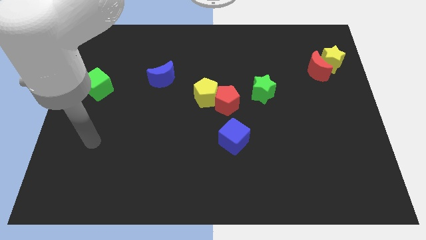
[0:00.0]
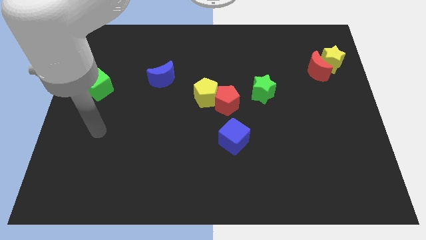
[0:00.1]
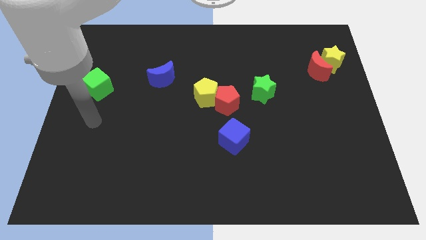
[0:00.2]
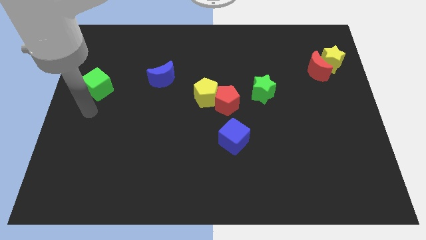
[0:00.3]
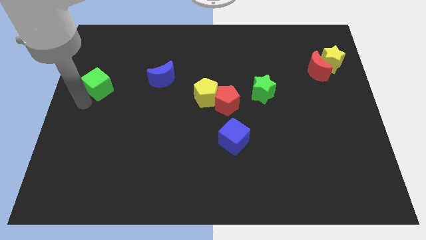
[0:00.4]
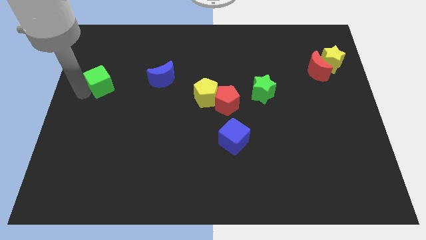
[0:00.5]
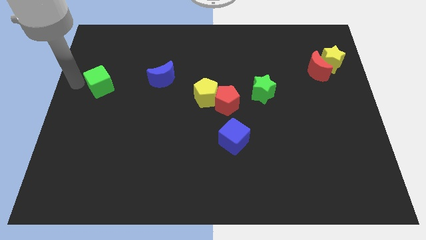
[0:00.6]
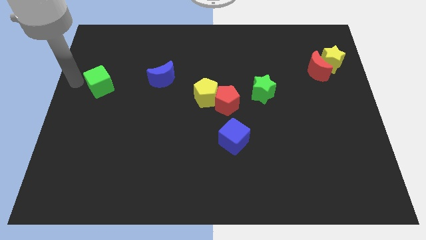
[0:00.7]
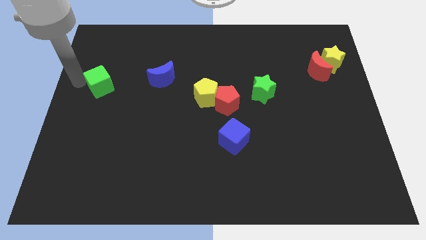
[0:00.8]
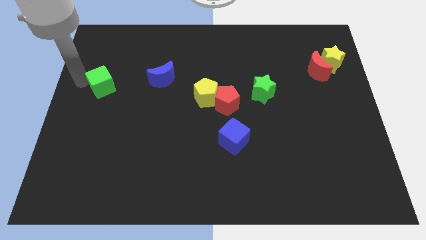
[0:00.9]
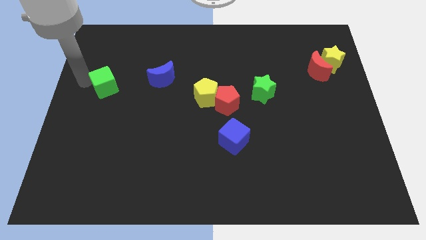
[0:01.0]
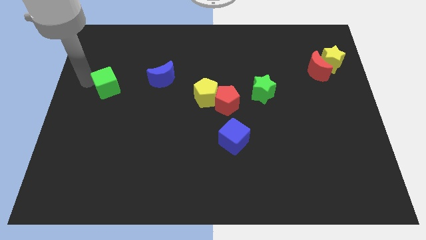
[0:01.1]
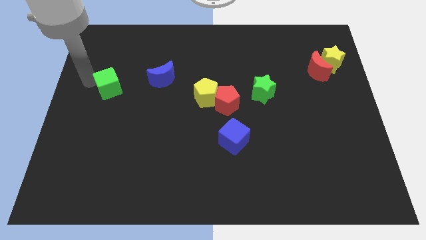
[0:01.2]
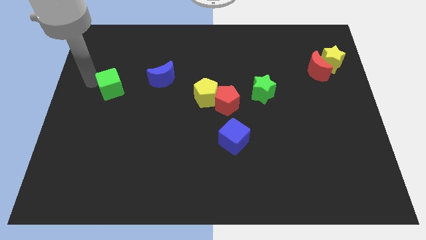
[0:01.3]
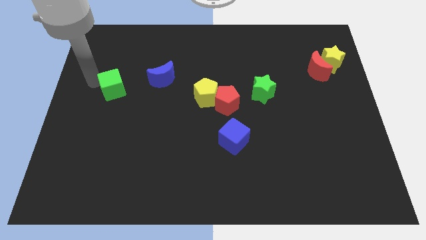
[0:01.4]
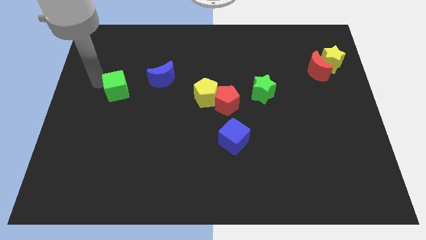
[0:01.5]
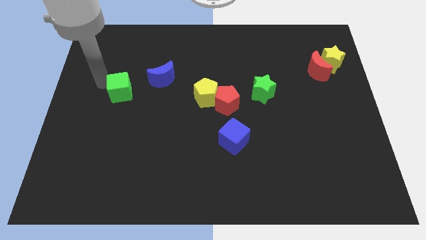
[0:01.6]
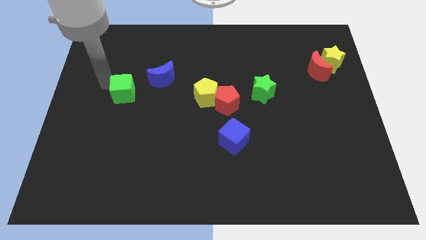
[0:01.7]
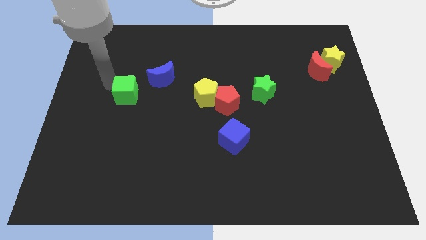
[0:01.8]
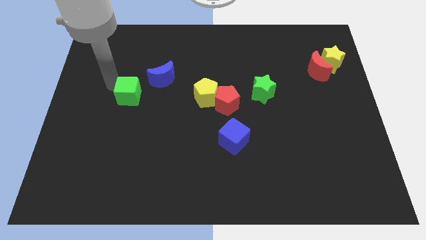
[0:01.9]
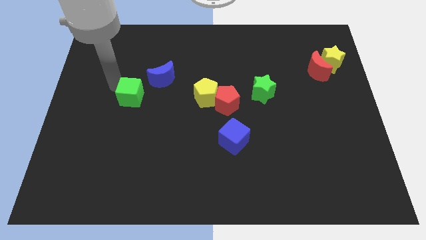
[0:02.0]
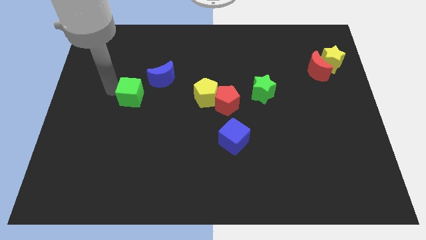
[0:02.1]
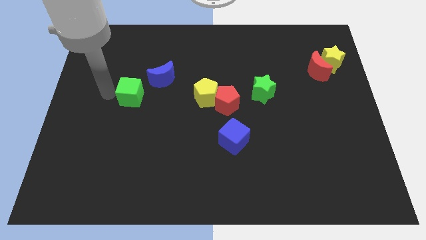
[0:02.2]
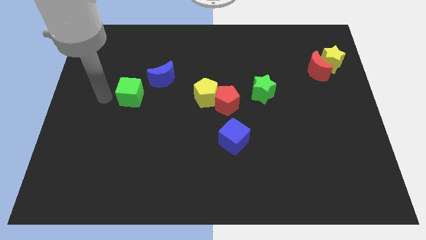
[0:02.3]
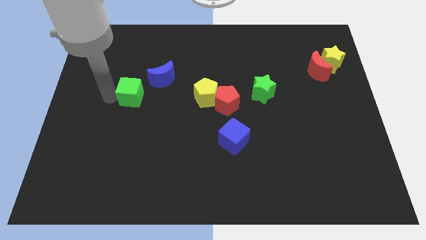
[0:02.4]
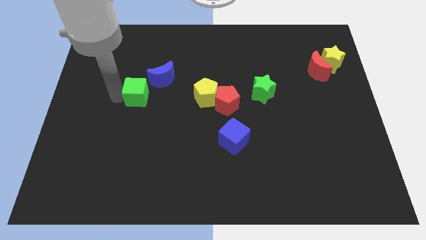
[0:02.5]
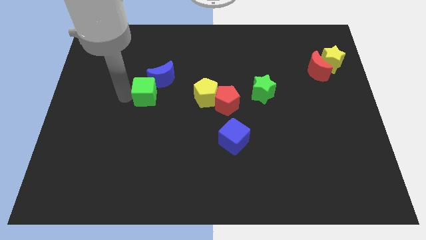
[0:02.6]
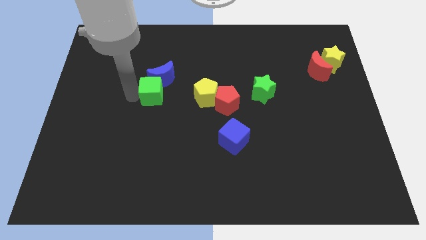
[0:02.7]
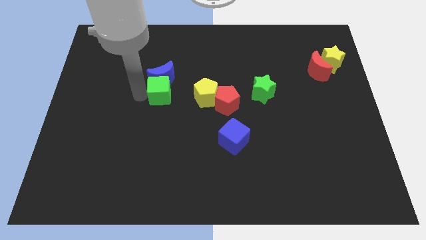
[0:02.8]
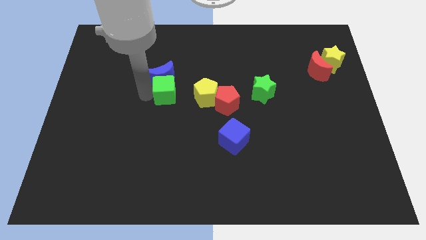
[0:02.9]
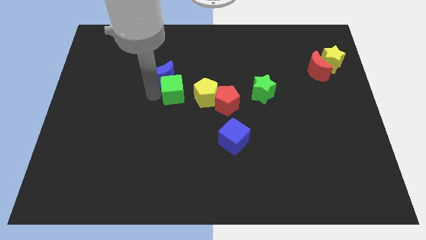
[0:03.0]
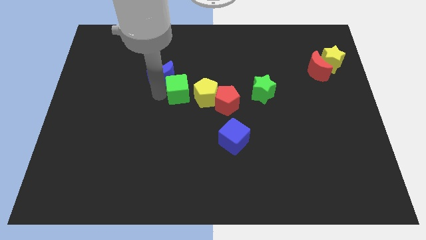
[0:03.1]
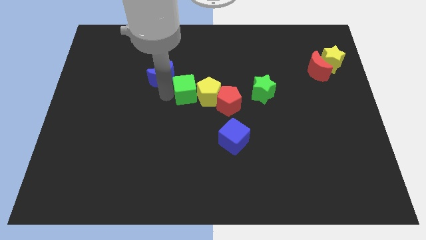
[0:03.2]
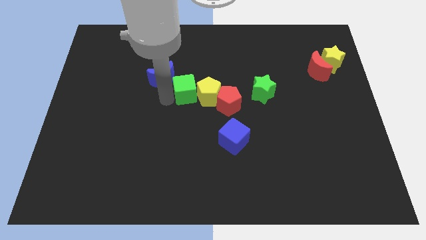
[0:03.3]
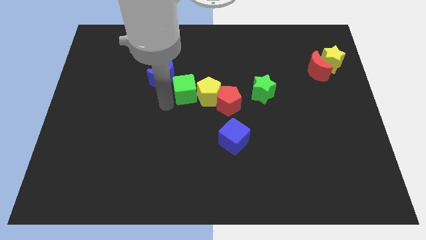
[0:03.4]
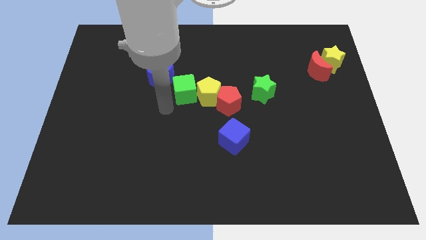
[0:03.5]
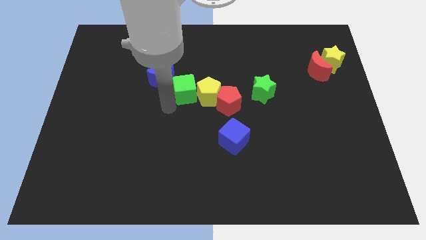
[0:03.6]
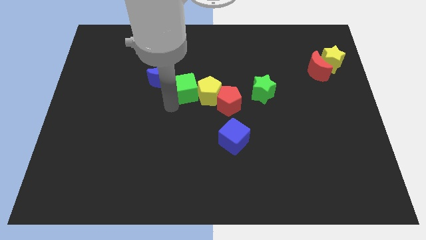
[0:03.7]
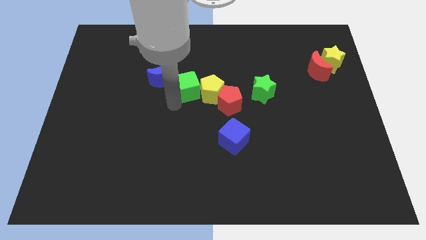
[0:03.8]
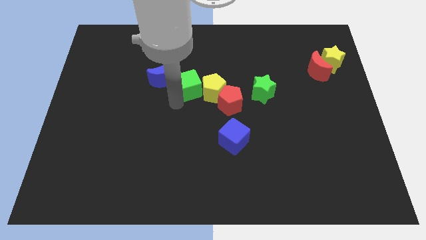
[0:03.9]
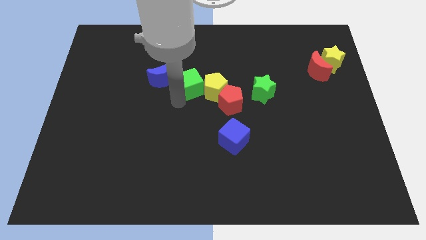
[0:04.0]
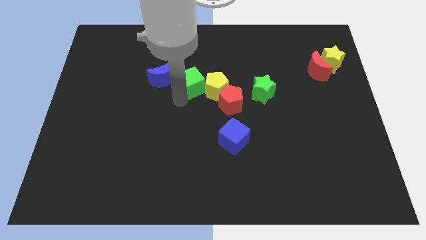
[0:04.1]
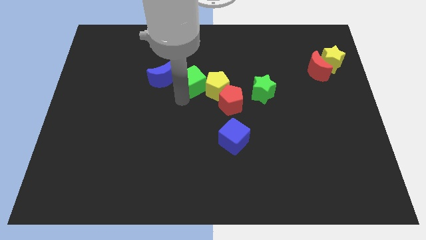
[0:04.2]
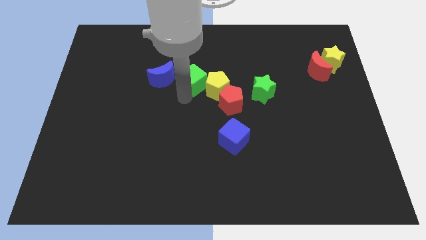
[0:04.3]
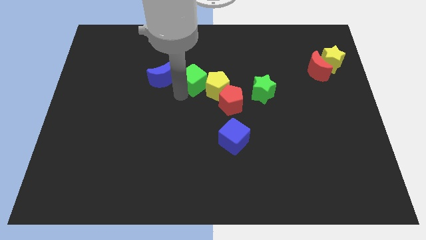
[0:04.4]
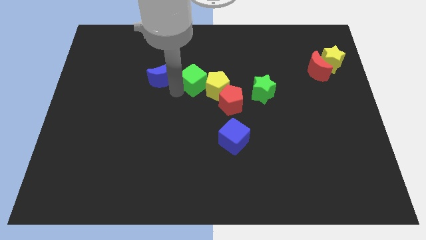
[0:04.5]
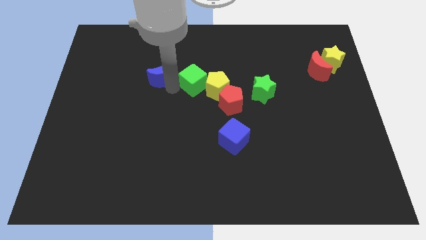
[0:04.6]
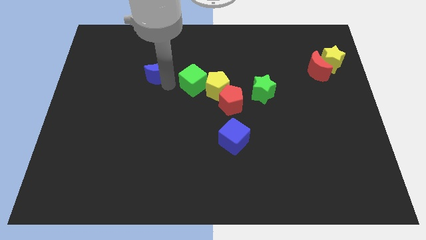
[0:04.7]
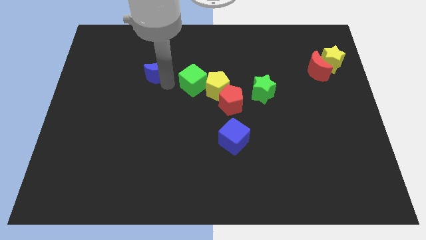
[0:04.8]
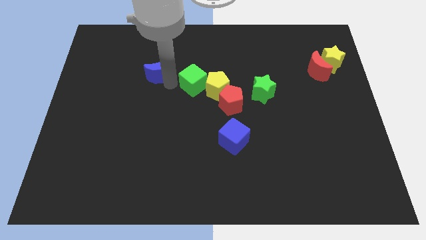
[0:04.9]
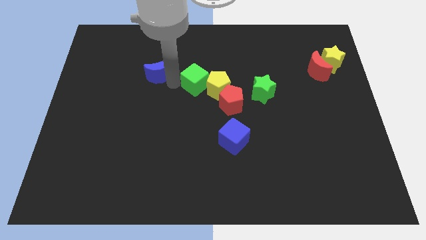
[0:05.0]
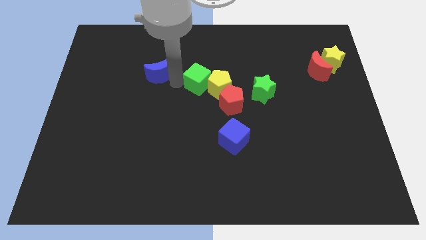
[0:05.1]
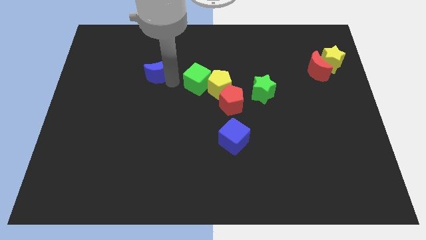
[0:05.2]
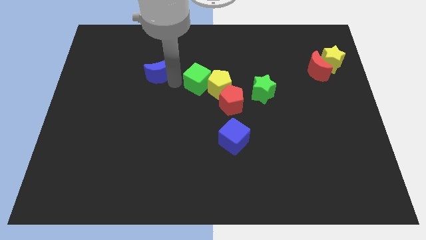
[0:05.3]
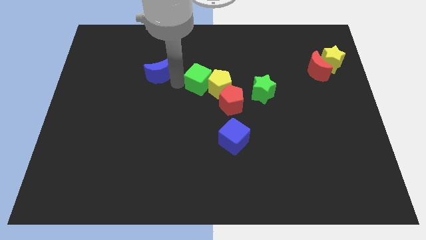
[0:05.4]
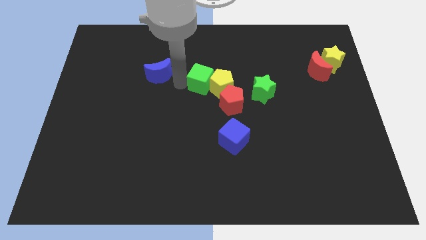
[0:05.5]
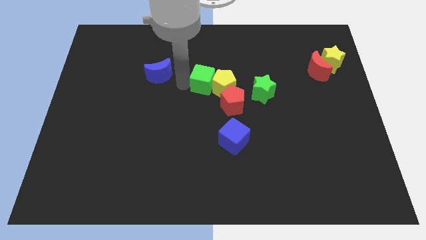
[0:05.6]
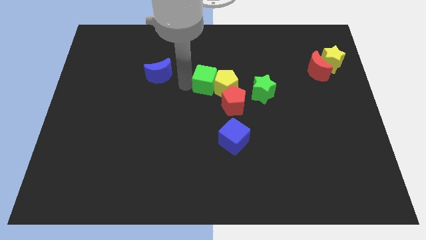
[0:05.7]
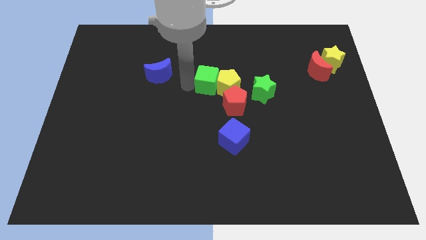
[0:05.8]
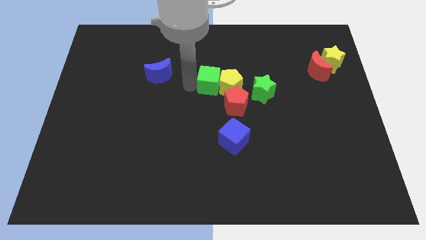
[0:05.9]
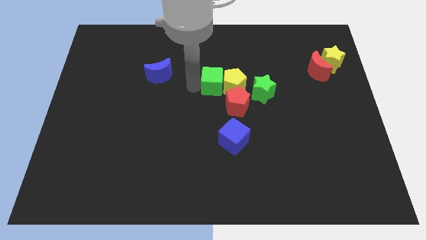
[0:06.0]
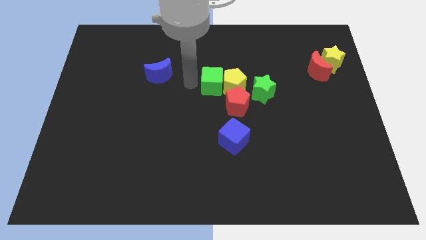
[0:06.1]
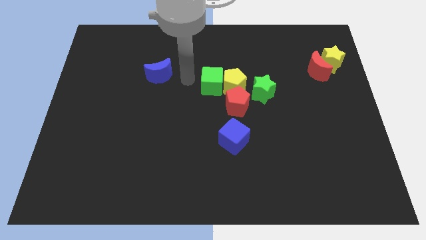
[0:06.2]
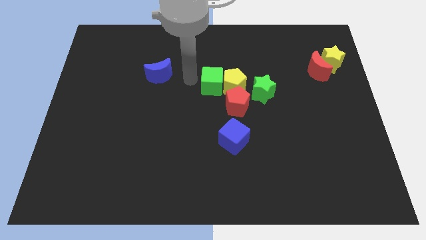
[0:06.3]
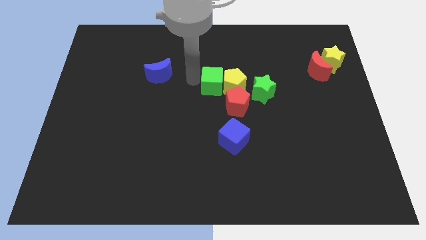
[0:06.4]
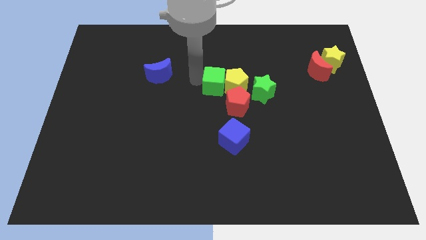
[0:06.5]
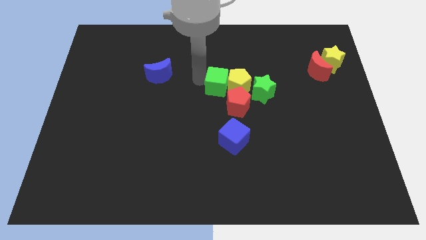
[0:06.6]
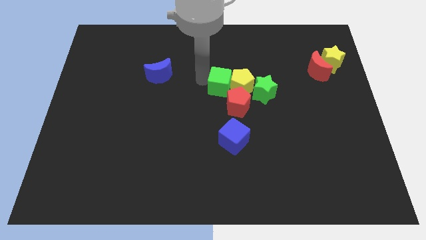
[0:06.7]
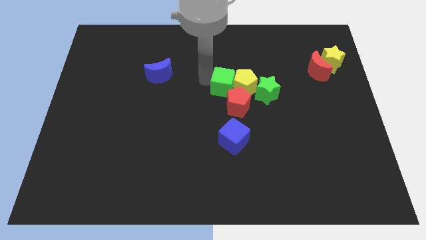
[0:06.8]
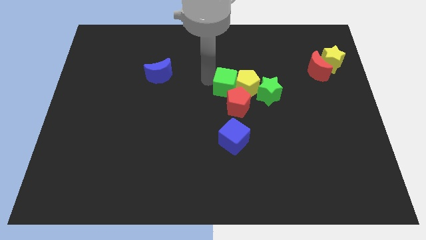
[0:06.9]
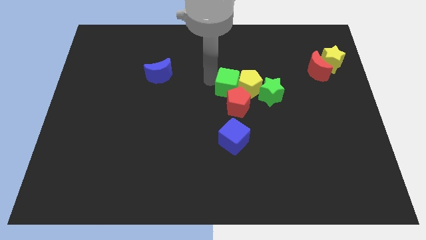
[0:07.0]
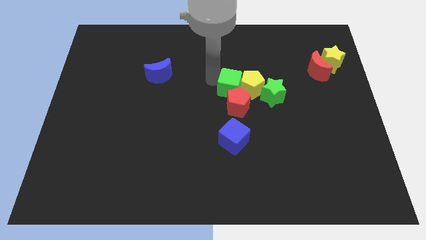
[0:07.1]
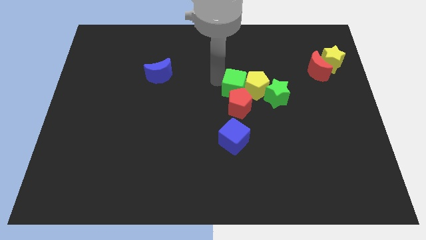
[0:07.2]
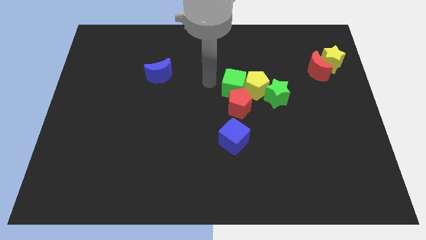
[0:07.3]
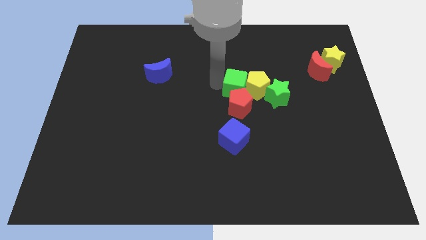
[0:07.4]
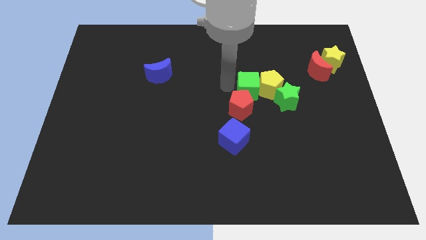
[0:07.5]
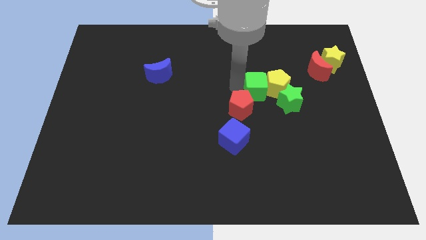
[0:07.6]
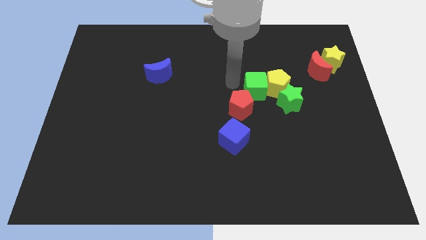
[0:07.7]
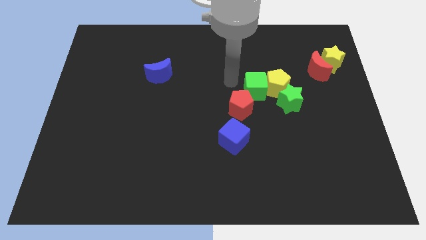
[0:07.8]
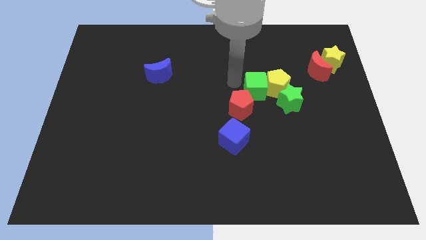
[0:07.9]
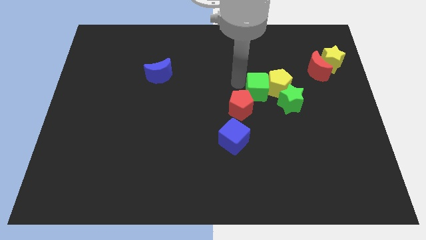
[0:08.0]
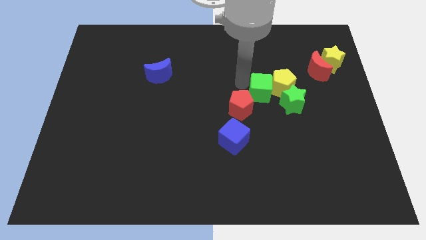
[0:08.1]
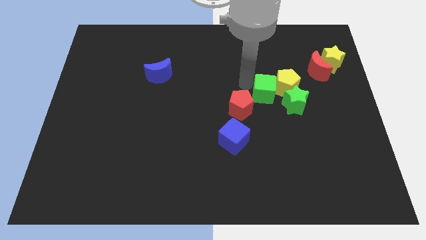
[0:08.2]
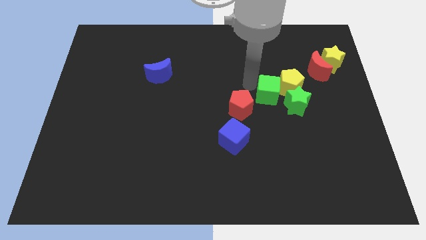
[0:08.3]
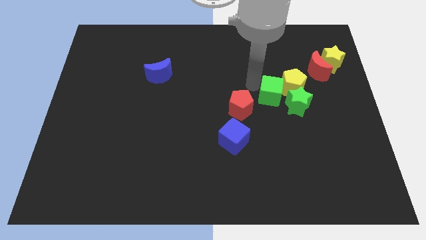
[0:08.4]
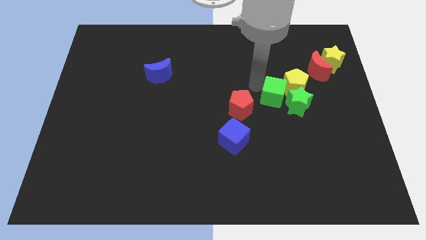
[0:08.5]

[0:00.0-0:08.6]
put the green cube next to the green star
